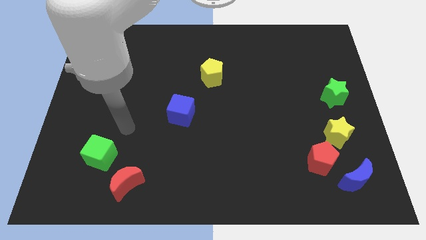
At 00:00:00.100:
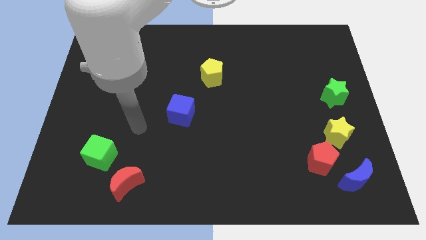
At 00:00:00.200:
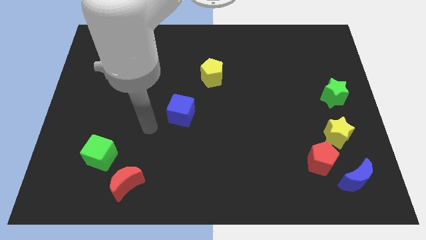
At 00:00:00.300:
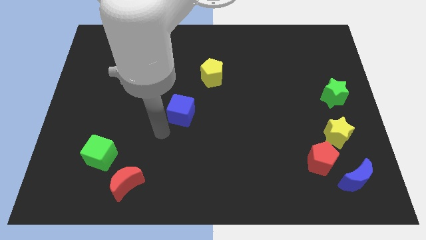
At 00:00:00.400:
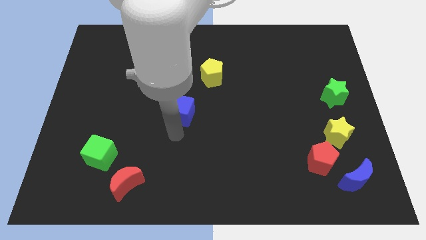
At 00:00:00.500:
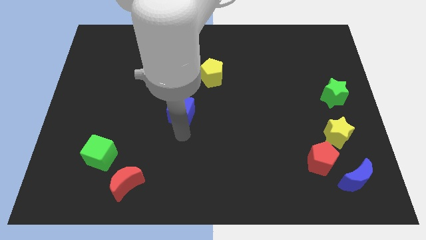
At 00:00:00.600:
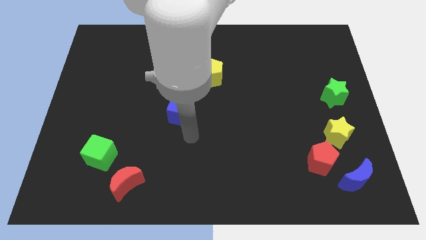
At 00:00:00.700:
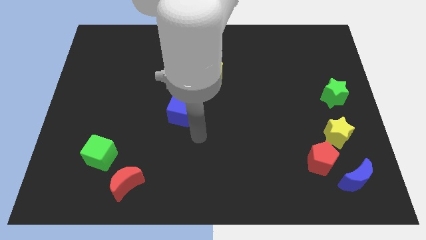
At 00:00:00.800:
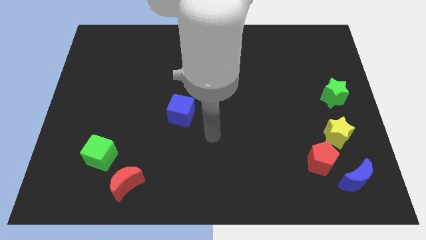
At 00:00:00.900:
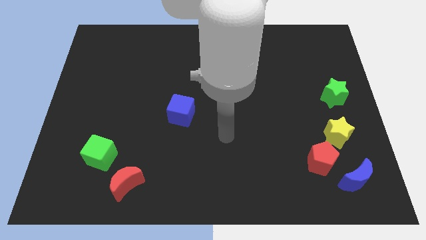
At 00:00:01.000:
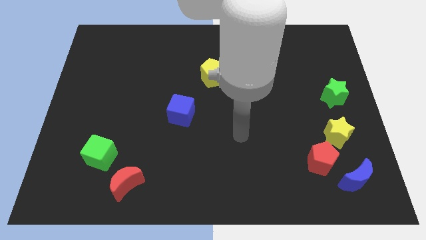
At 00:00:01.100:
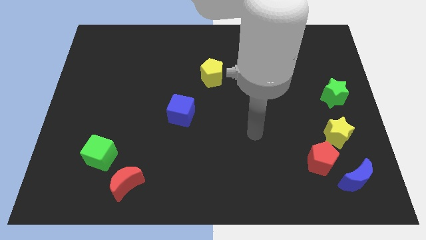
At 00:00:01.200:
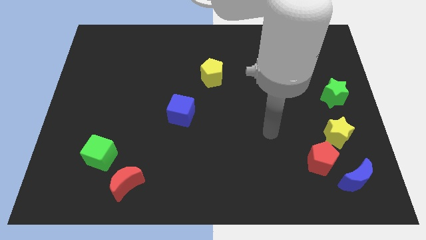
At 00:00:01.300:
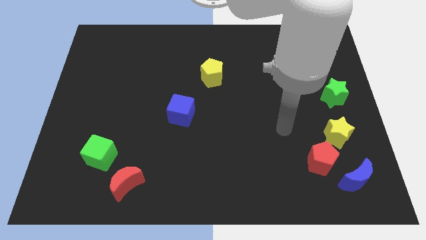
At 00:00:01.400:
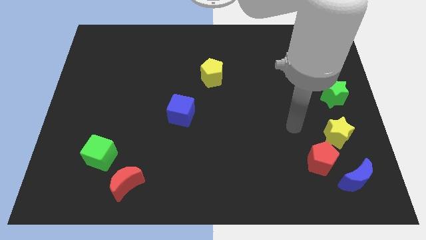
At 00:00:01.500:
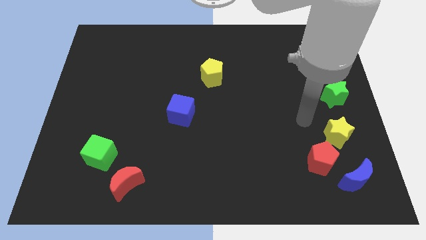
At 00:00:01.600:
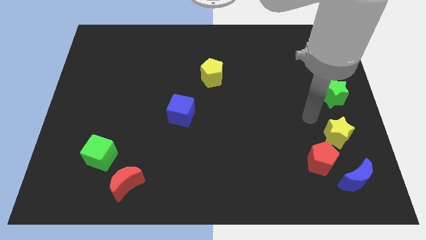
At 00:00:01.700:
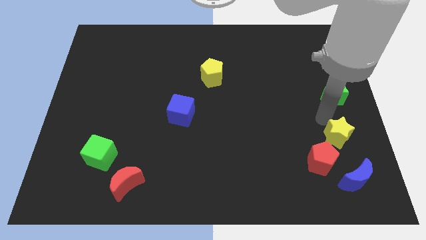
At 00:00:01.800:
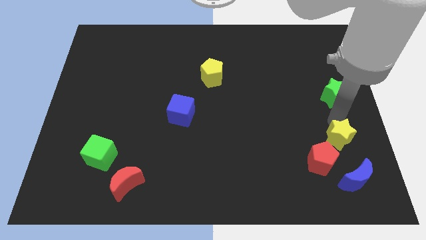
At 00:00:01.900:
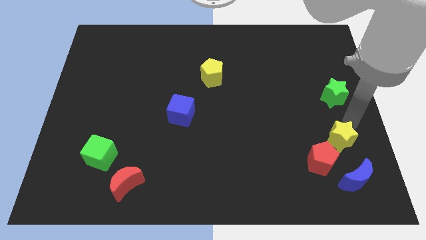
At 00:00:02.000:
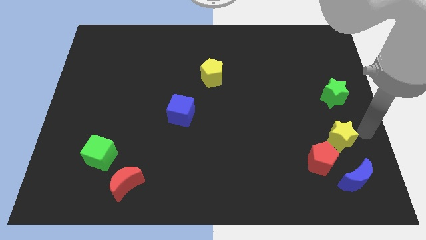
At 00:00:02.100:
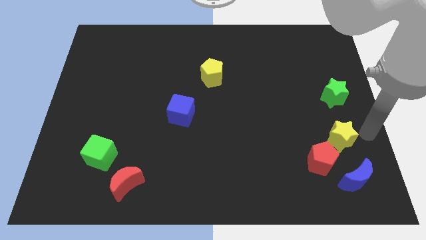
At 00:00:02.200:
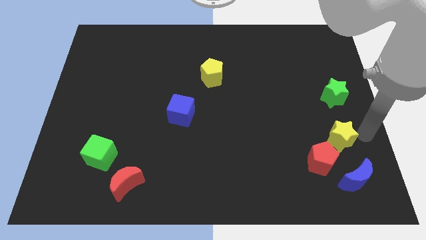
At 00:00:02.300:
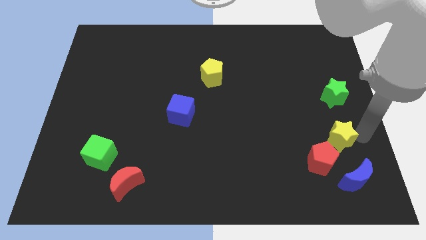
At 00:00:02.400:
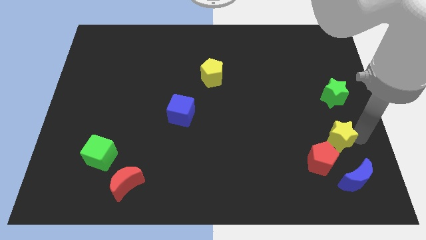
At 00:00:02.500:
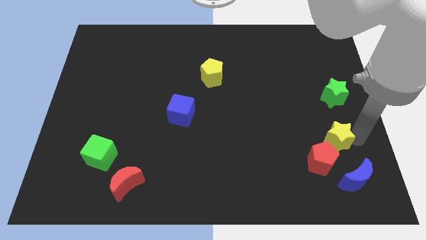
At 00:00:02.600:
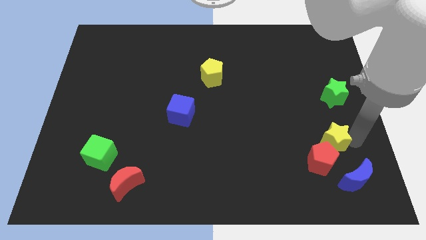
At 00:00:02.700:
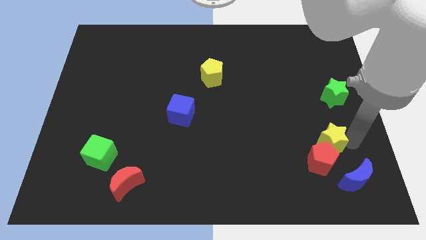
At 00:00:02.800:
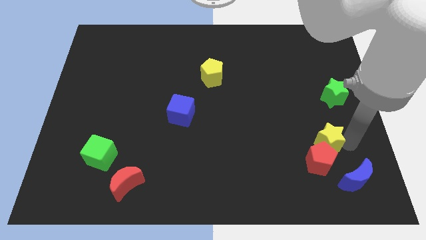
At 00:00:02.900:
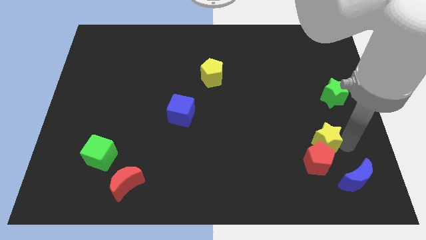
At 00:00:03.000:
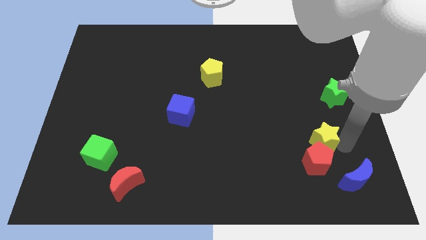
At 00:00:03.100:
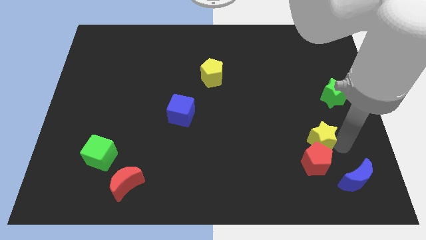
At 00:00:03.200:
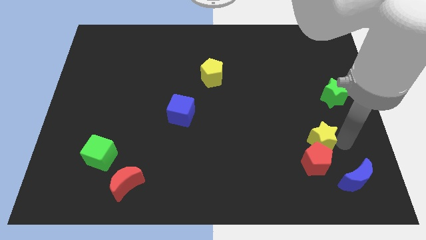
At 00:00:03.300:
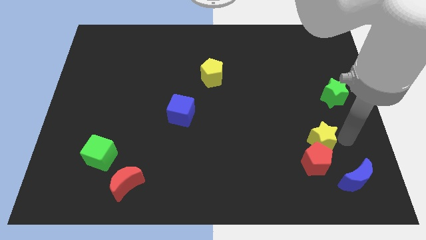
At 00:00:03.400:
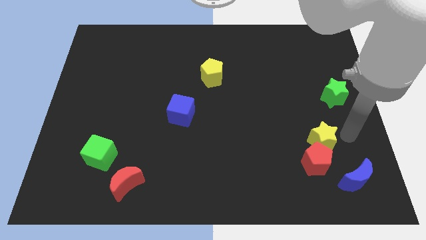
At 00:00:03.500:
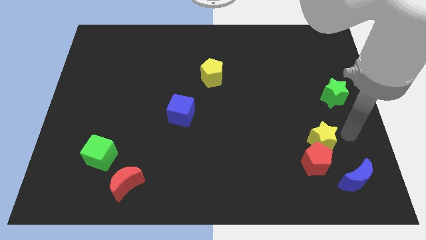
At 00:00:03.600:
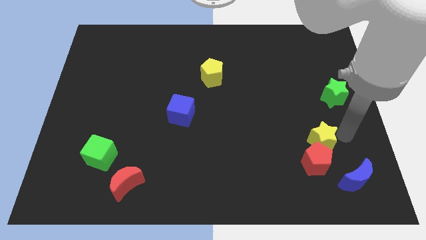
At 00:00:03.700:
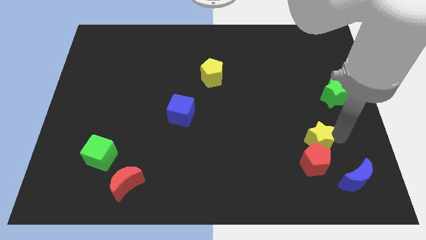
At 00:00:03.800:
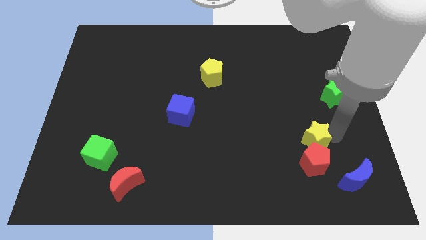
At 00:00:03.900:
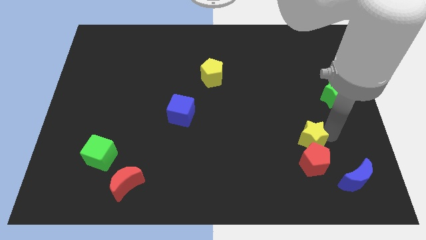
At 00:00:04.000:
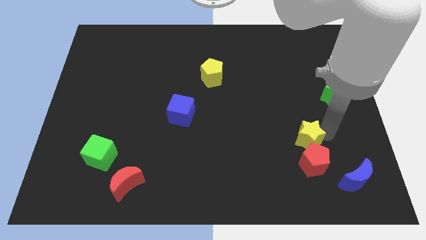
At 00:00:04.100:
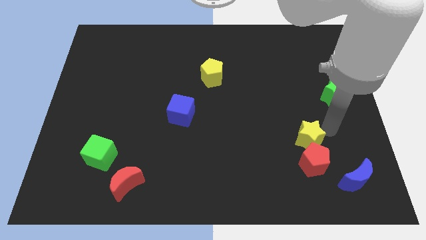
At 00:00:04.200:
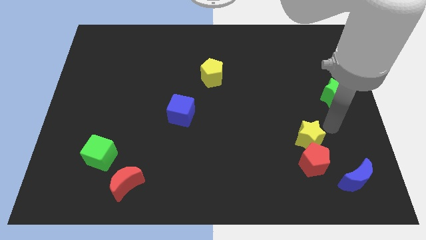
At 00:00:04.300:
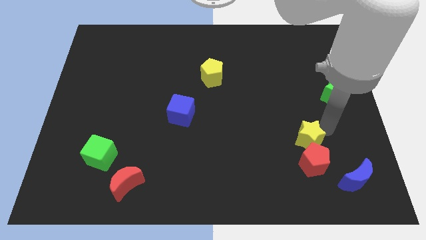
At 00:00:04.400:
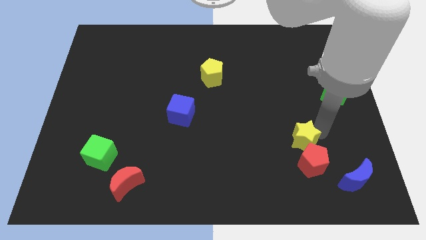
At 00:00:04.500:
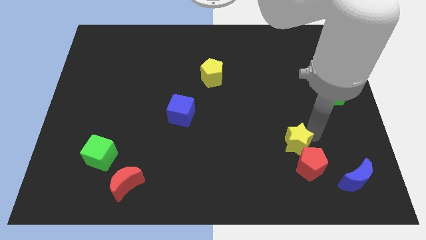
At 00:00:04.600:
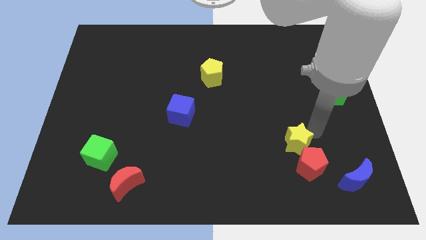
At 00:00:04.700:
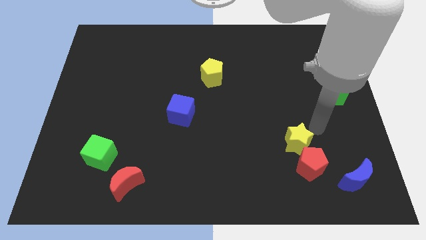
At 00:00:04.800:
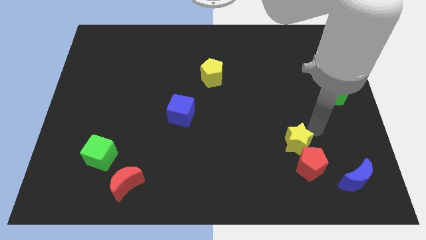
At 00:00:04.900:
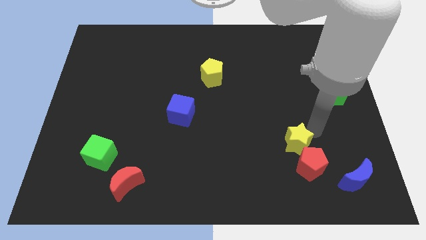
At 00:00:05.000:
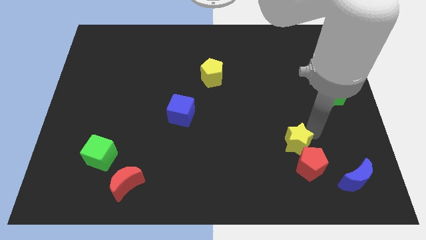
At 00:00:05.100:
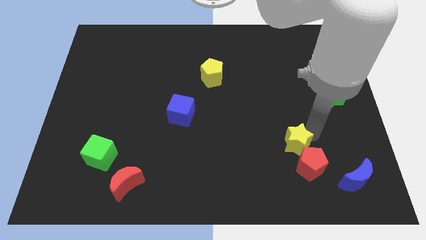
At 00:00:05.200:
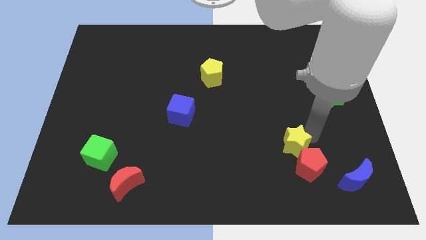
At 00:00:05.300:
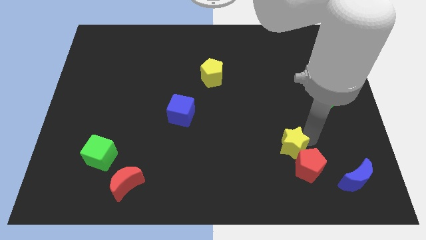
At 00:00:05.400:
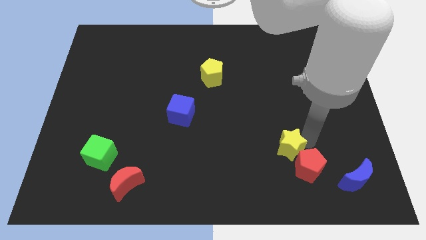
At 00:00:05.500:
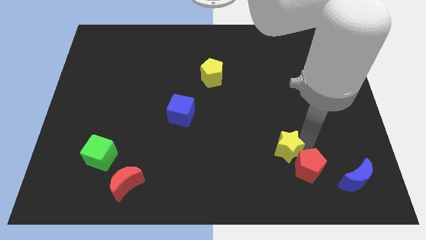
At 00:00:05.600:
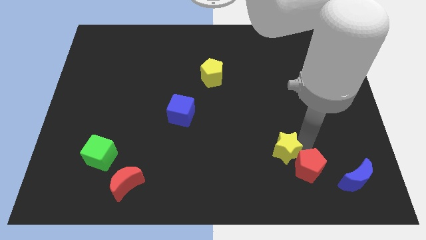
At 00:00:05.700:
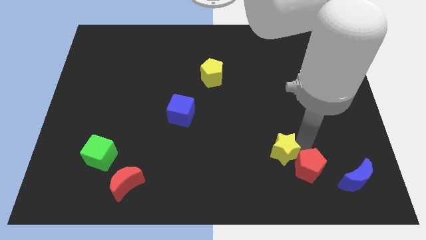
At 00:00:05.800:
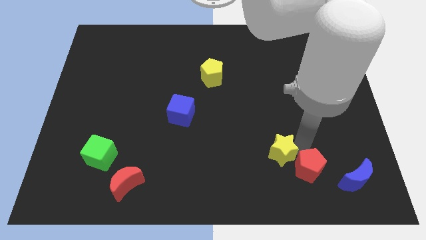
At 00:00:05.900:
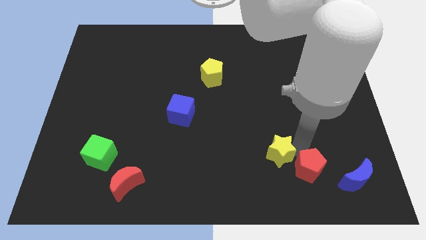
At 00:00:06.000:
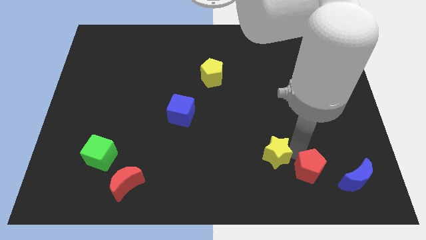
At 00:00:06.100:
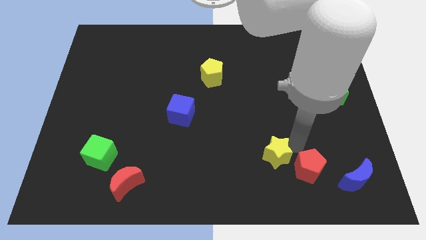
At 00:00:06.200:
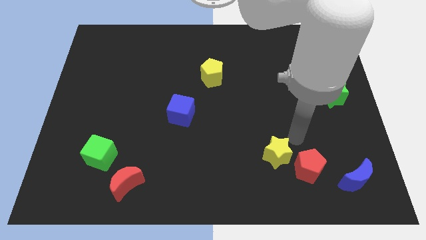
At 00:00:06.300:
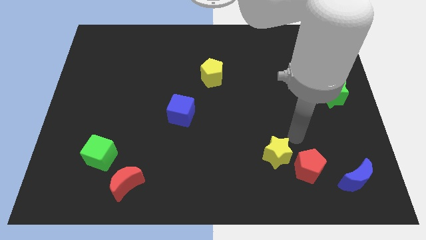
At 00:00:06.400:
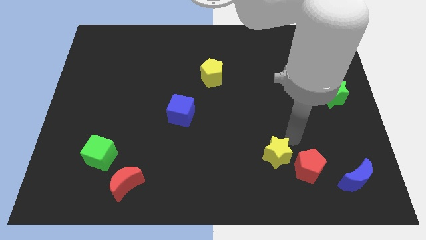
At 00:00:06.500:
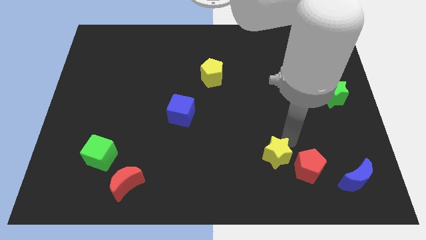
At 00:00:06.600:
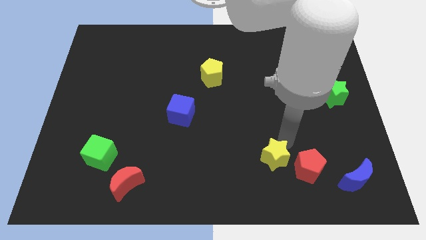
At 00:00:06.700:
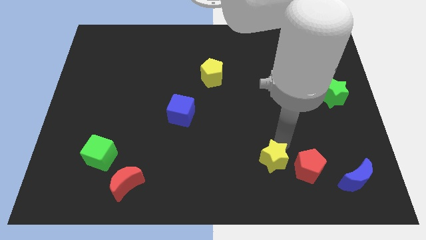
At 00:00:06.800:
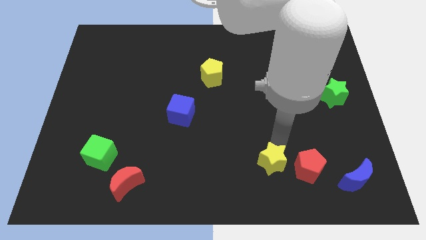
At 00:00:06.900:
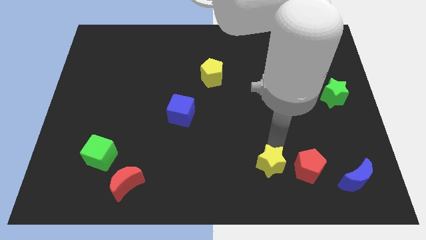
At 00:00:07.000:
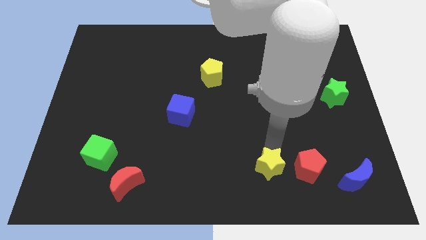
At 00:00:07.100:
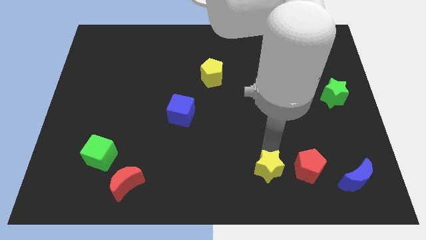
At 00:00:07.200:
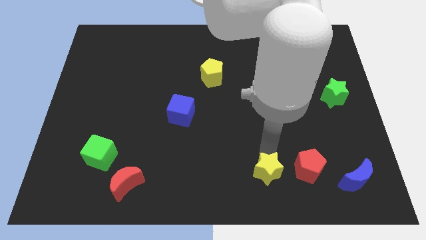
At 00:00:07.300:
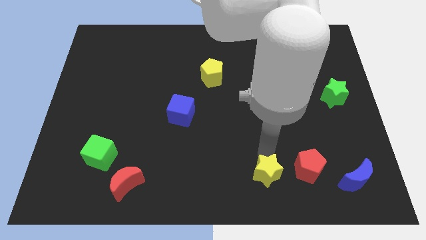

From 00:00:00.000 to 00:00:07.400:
slide the yellow star to the bottom
